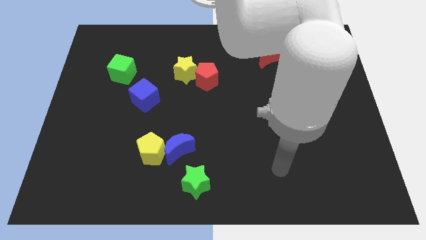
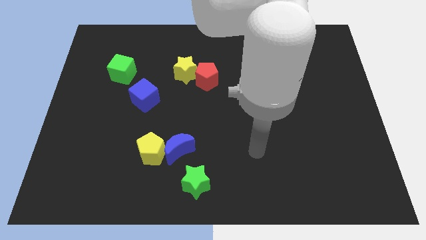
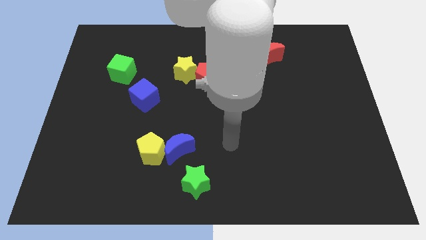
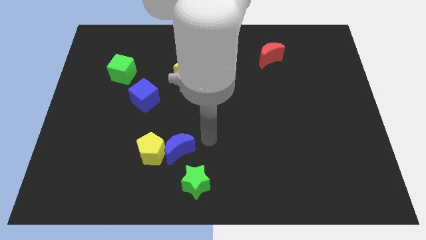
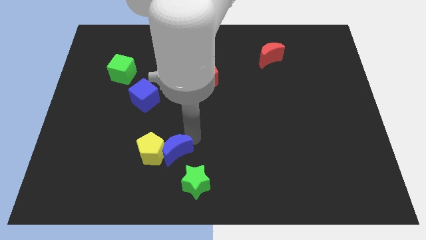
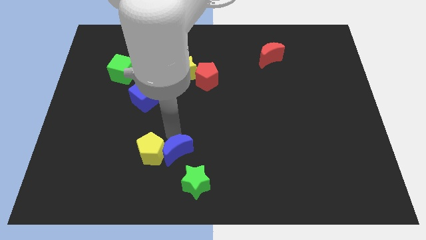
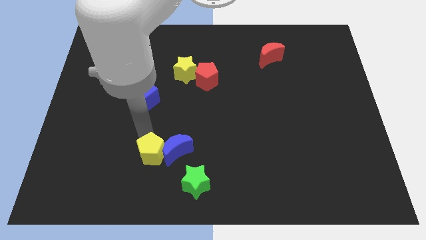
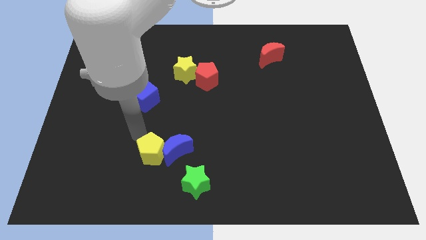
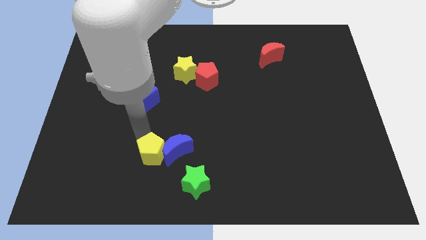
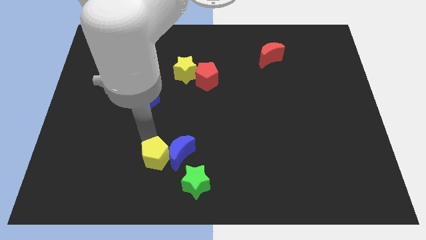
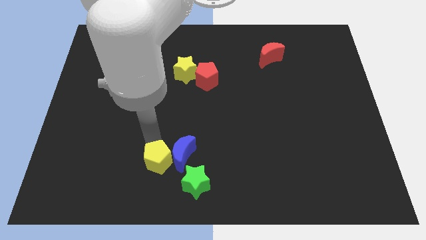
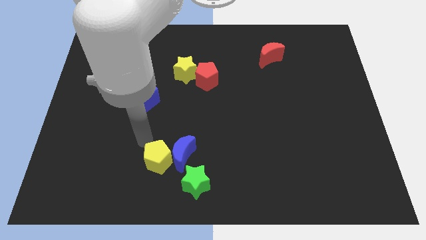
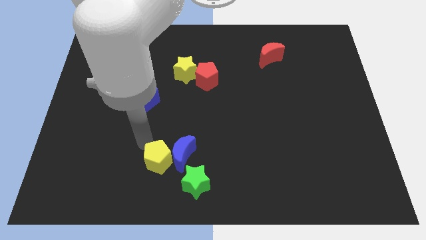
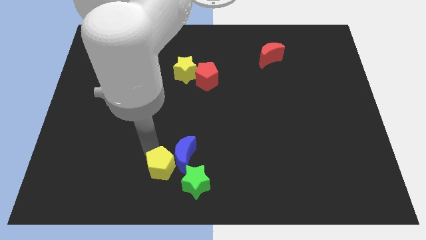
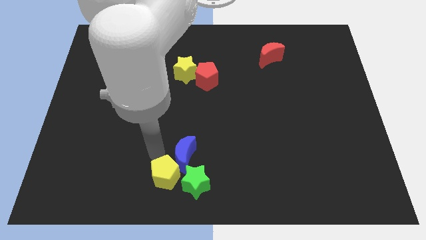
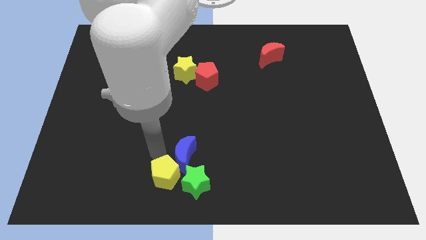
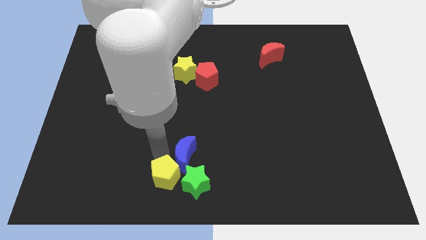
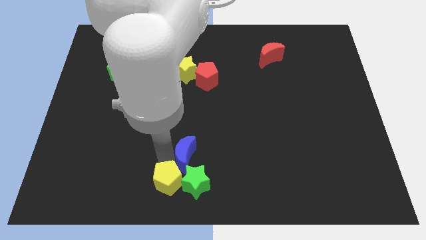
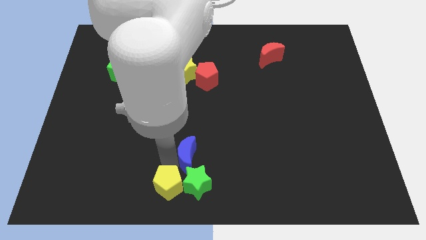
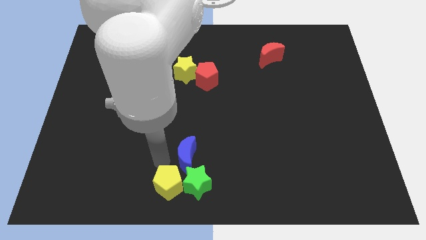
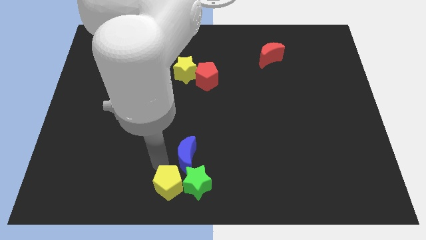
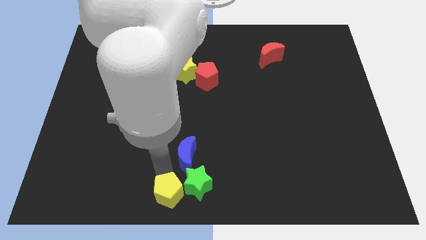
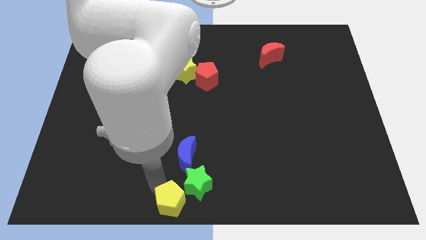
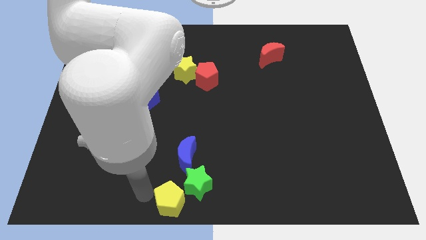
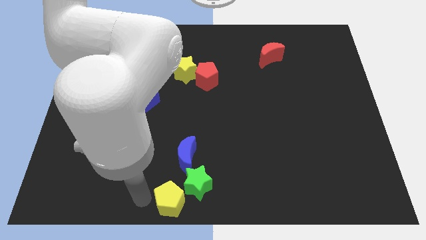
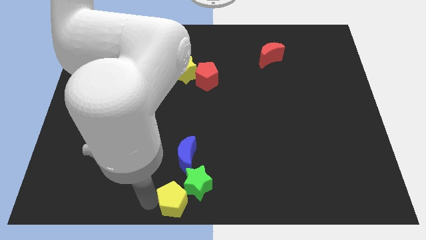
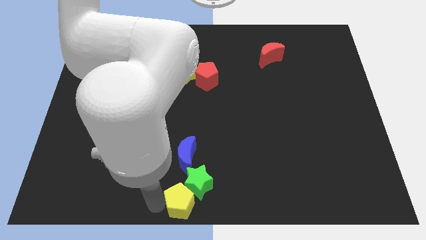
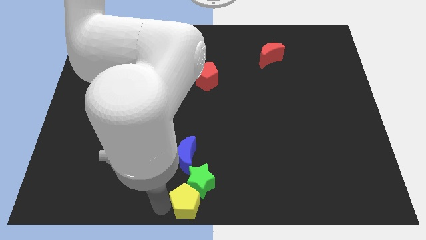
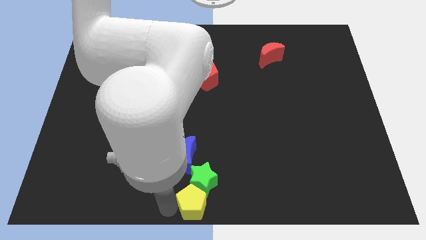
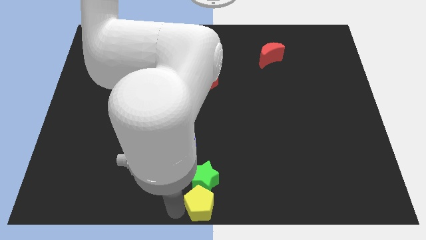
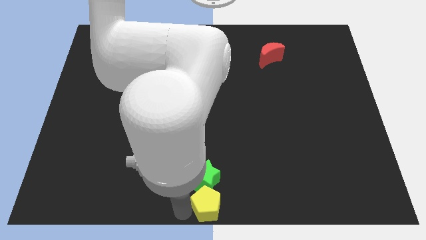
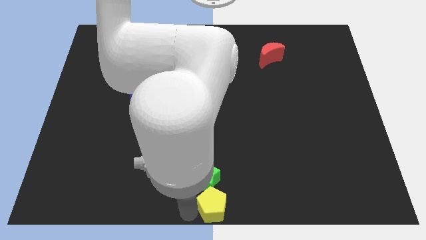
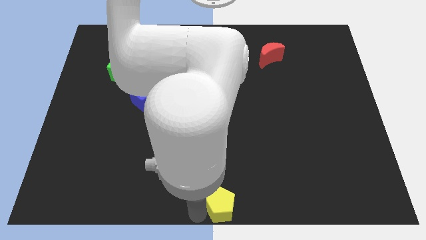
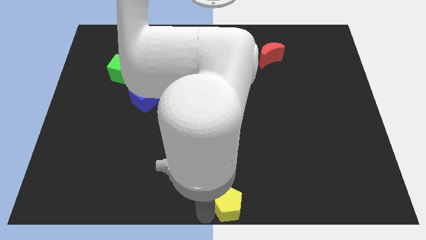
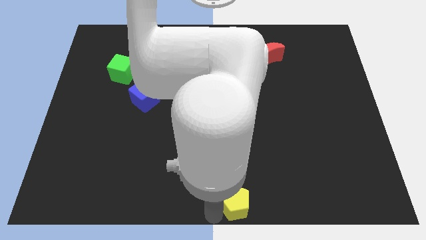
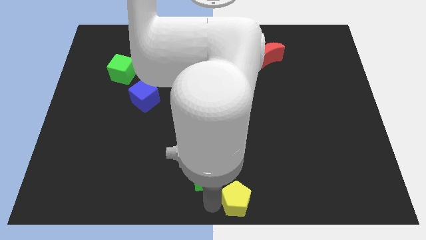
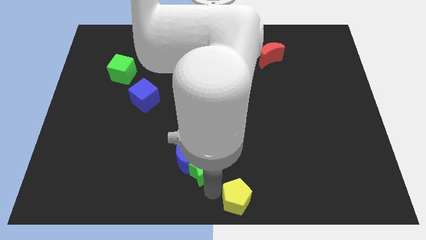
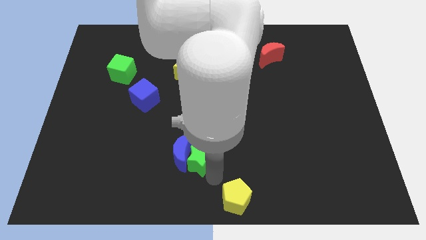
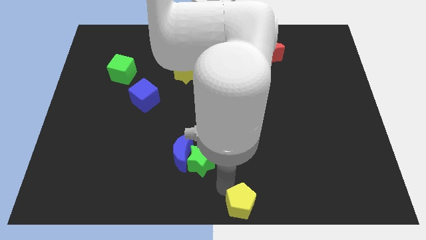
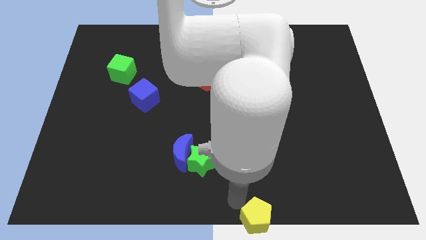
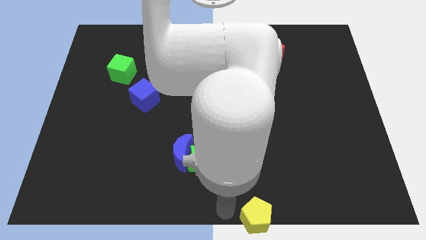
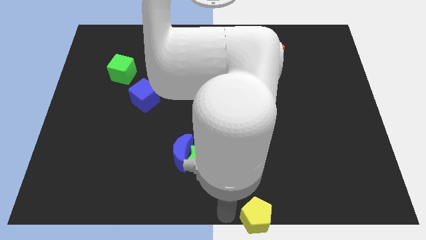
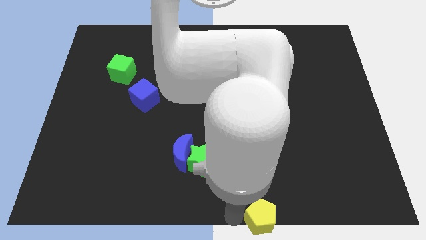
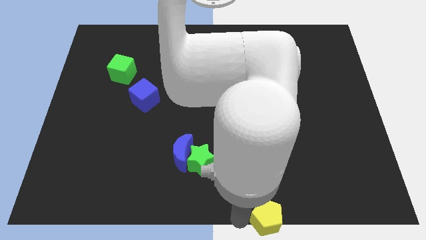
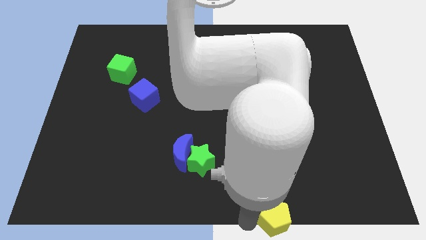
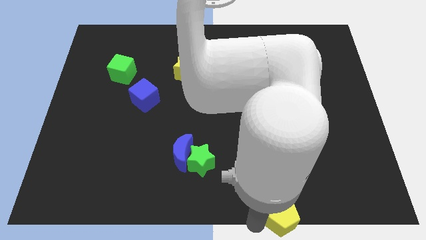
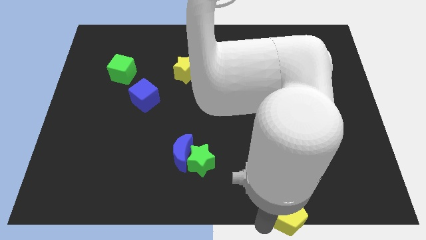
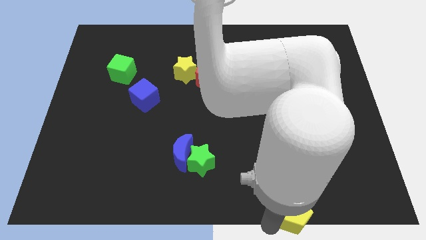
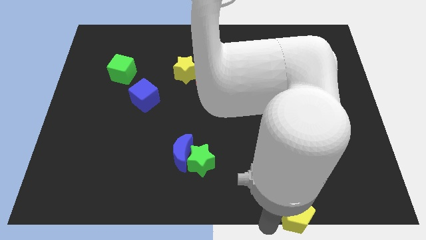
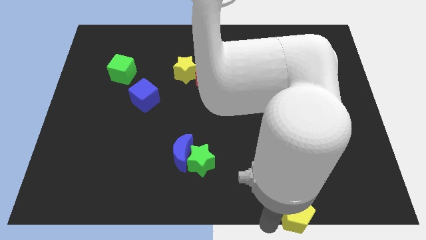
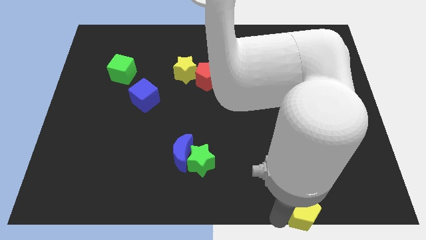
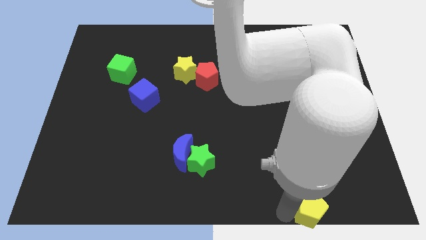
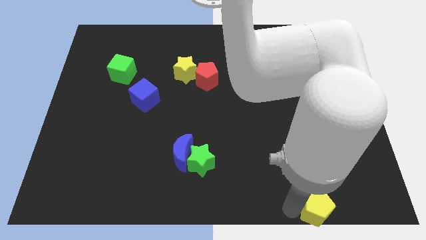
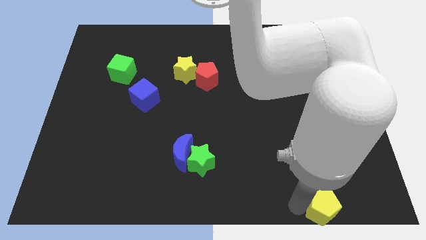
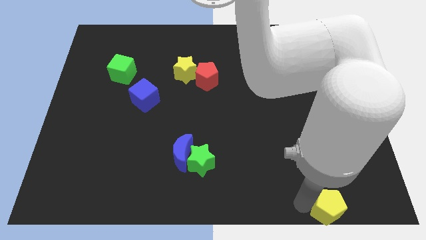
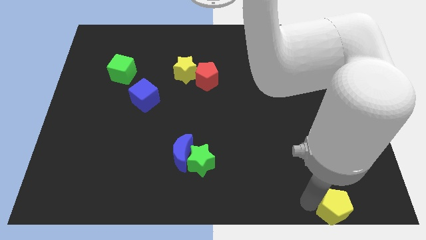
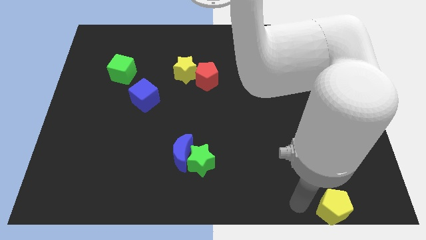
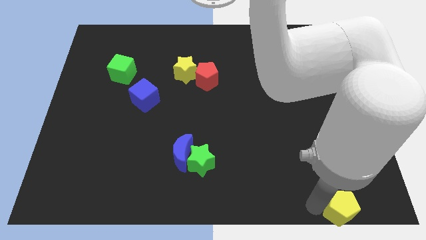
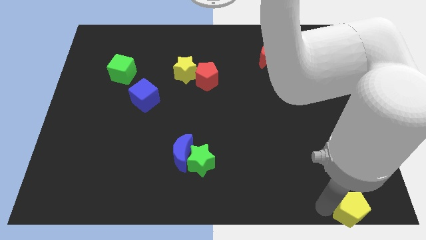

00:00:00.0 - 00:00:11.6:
move the yellow pentagon to the bottom right of the board
